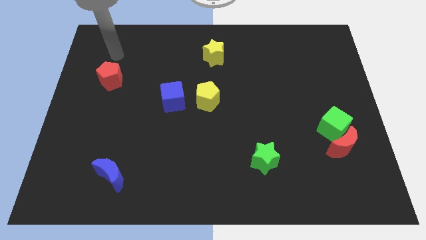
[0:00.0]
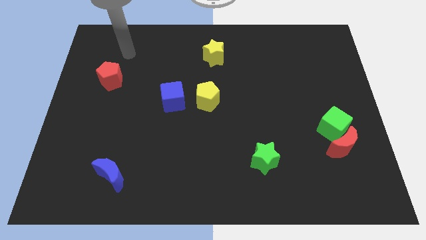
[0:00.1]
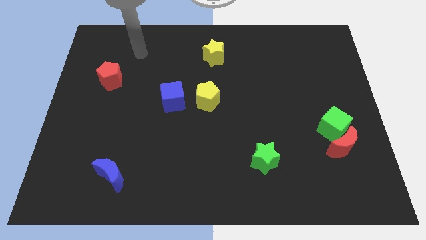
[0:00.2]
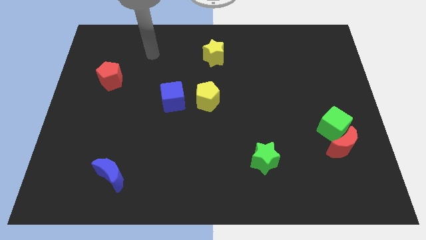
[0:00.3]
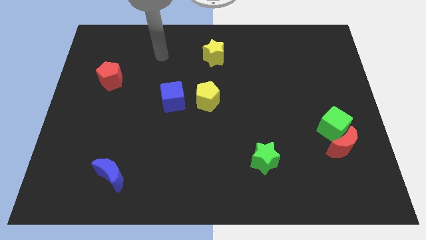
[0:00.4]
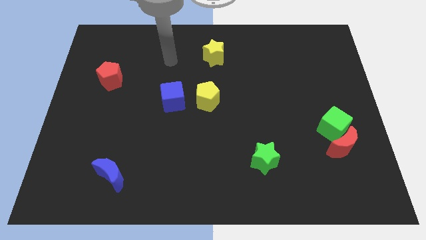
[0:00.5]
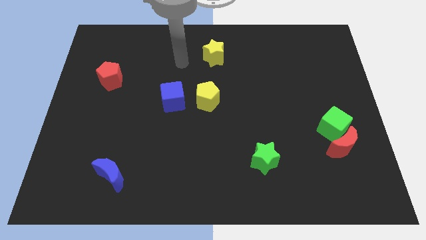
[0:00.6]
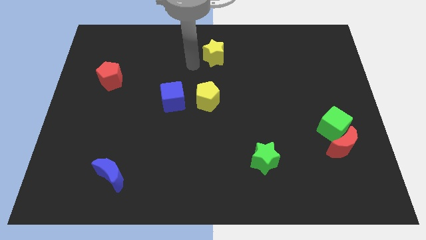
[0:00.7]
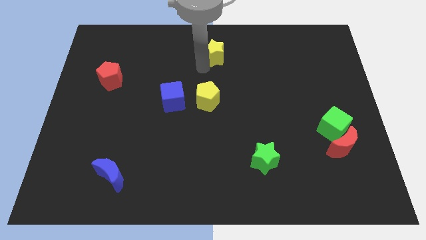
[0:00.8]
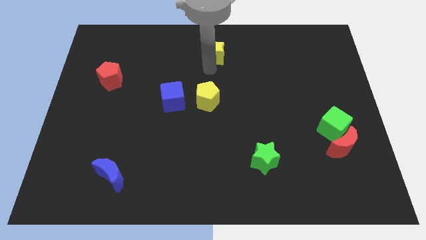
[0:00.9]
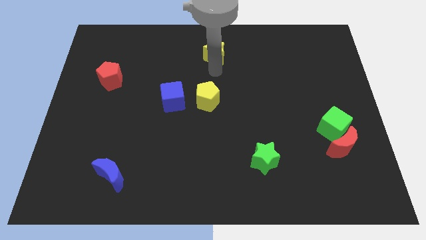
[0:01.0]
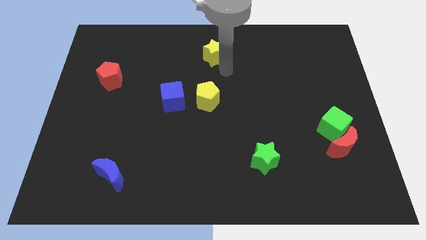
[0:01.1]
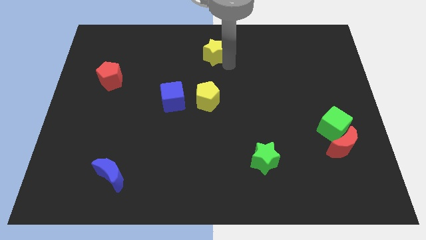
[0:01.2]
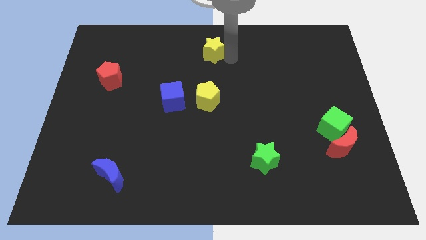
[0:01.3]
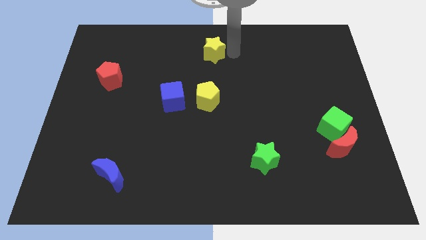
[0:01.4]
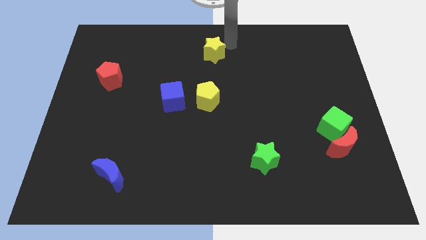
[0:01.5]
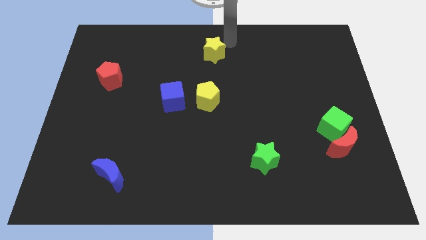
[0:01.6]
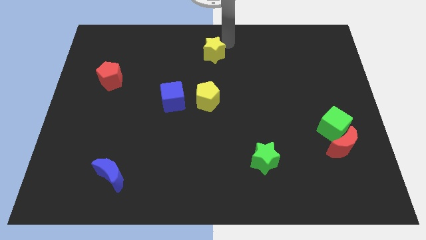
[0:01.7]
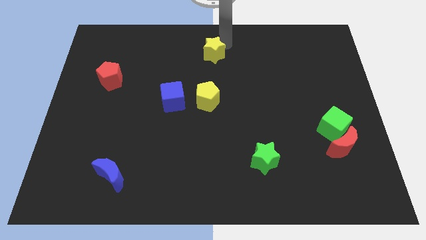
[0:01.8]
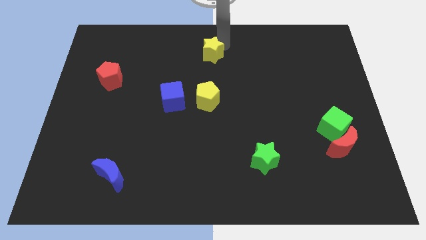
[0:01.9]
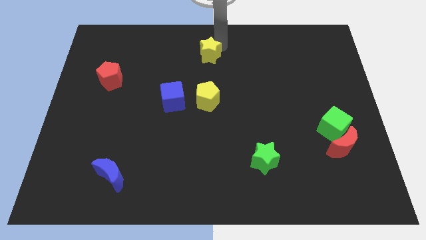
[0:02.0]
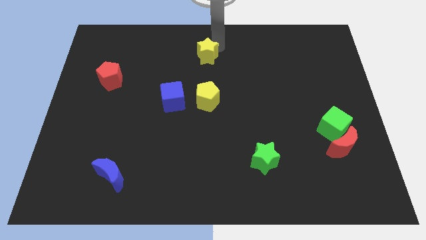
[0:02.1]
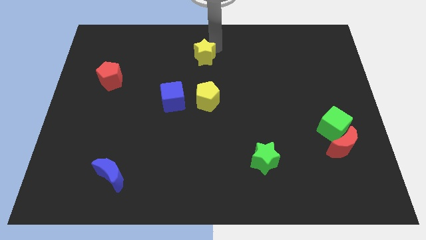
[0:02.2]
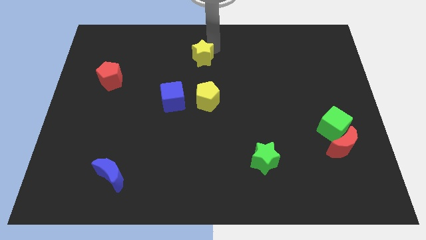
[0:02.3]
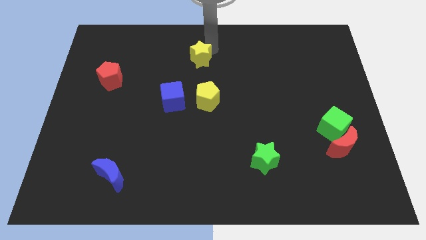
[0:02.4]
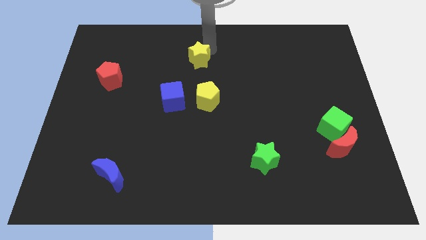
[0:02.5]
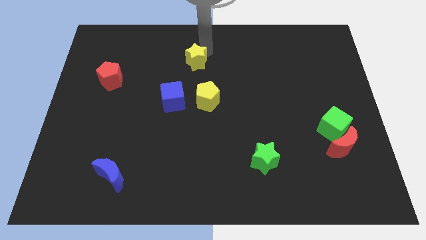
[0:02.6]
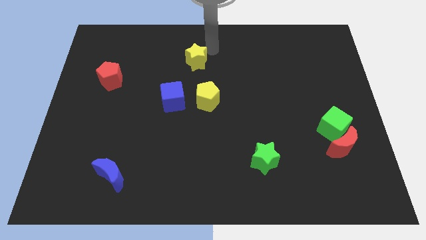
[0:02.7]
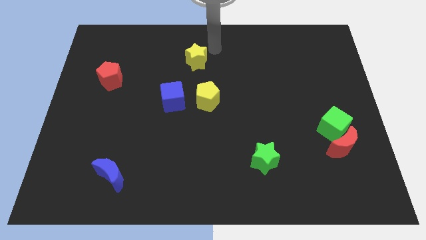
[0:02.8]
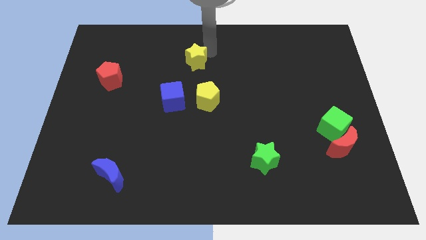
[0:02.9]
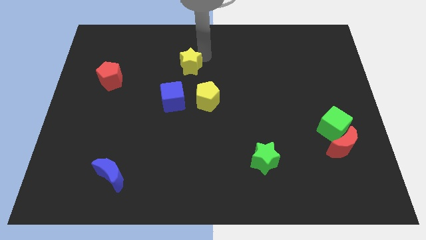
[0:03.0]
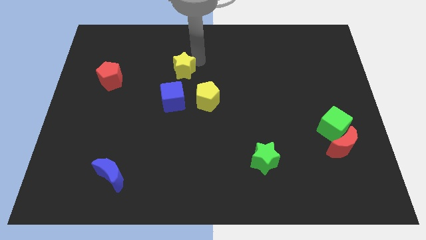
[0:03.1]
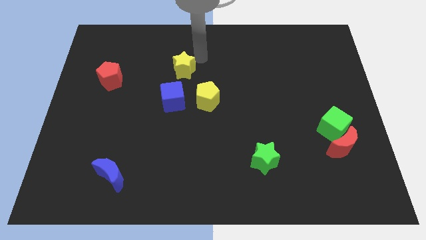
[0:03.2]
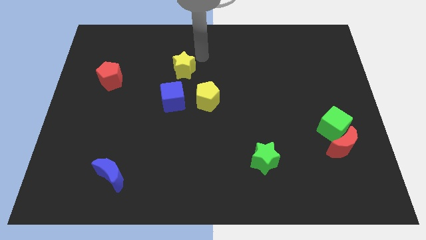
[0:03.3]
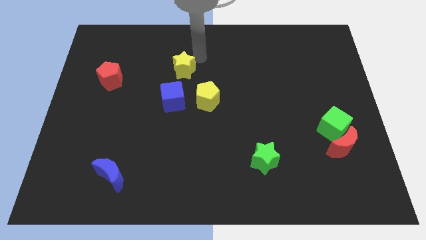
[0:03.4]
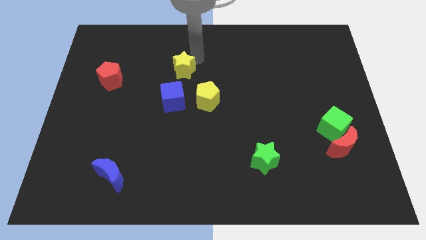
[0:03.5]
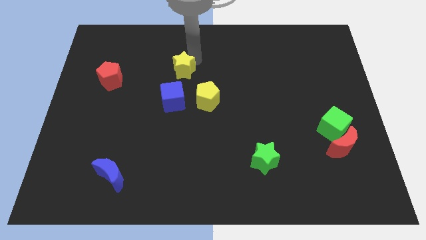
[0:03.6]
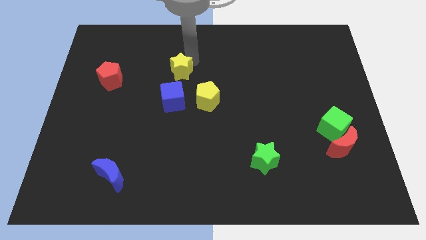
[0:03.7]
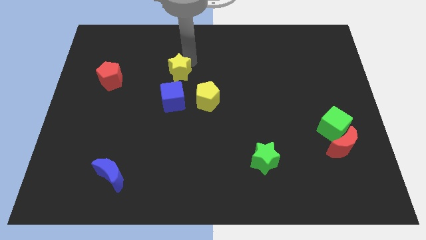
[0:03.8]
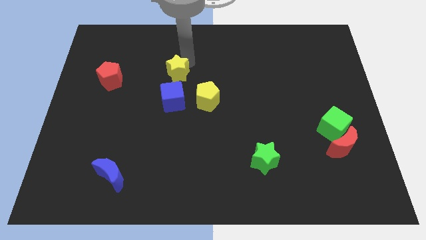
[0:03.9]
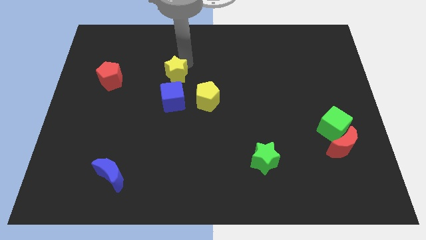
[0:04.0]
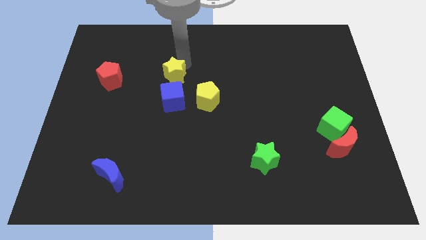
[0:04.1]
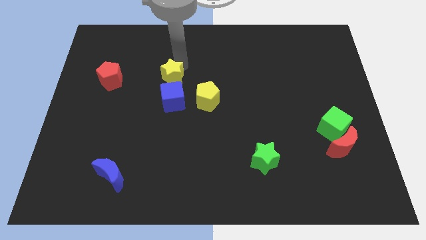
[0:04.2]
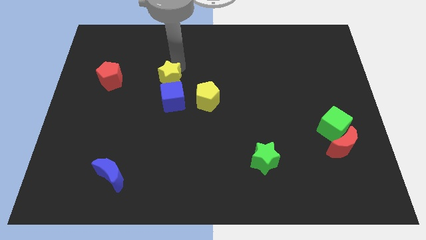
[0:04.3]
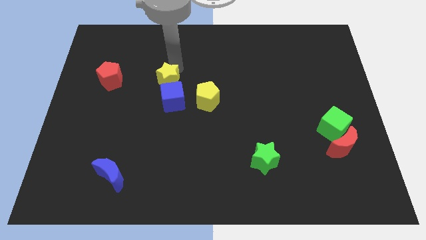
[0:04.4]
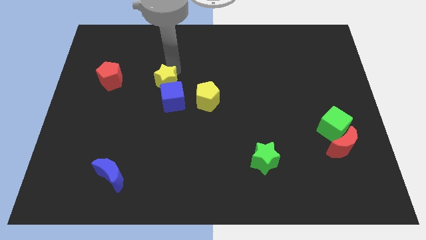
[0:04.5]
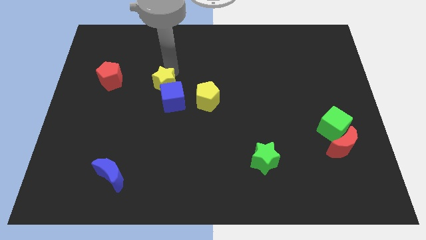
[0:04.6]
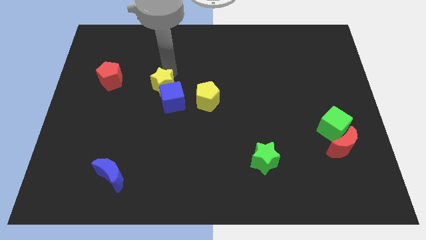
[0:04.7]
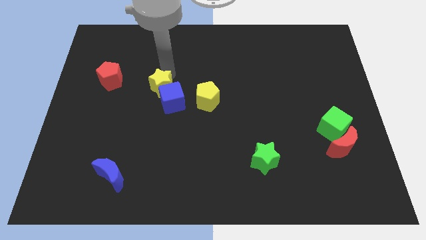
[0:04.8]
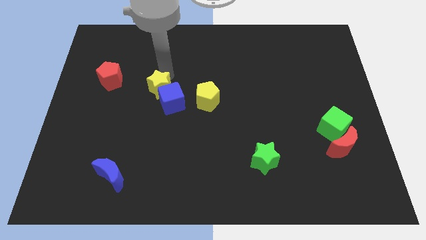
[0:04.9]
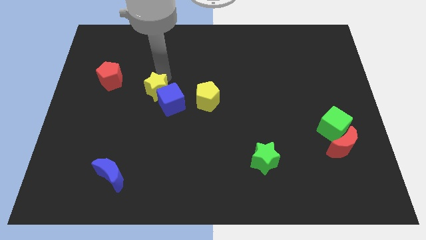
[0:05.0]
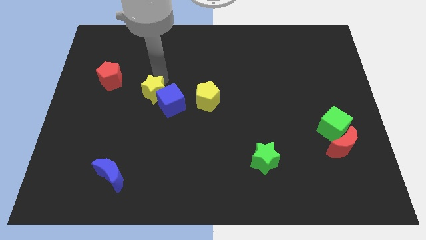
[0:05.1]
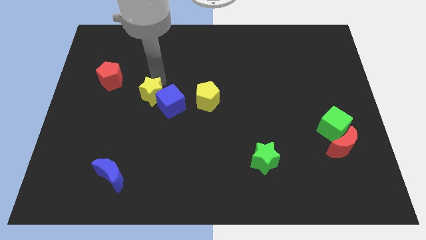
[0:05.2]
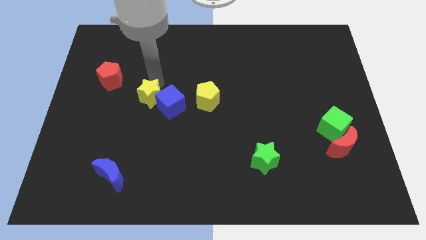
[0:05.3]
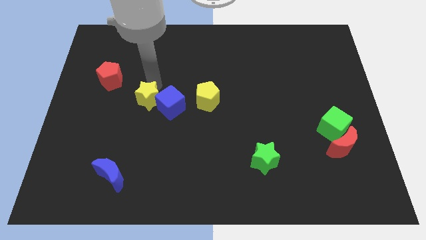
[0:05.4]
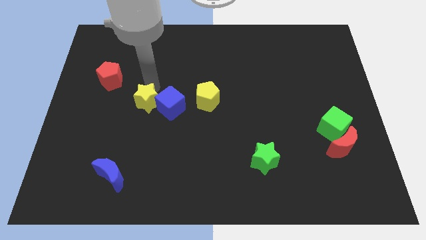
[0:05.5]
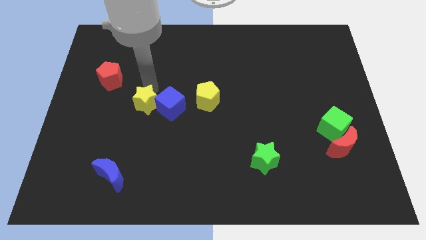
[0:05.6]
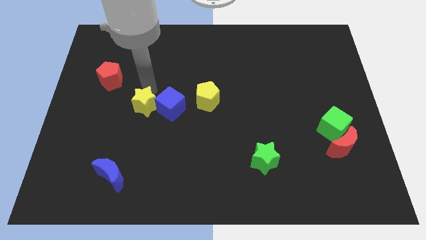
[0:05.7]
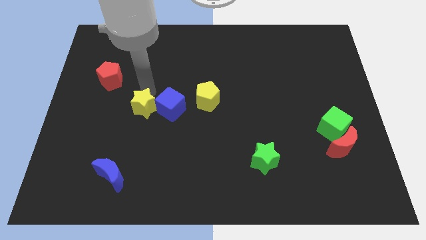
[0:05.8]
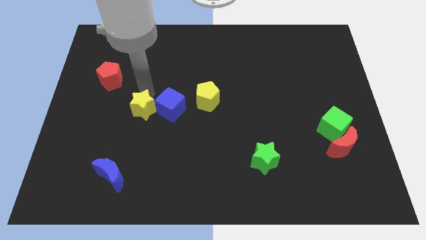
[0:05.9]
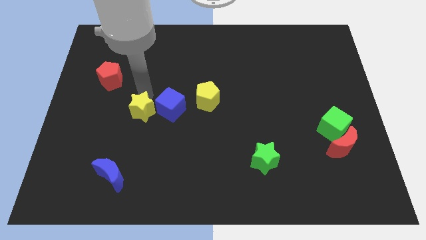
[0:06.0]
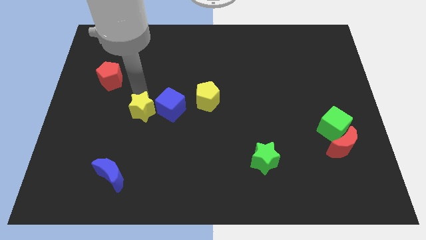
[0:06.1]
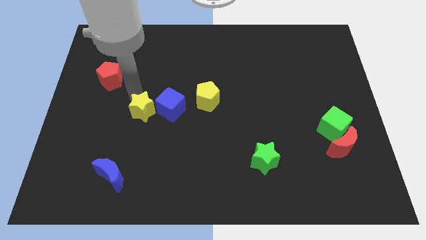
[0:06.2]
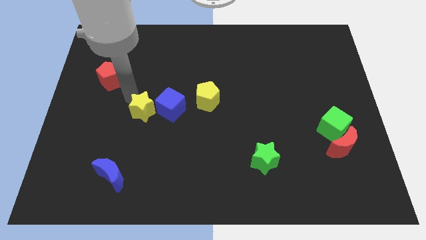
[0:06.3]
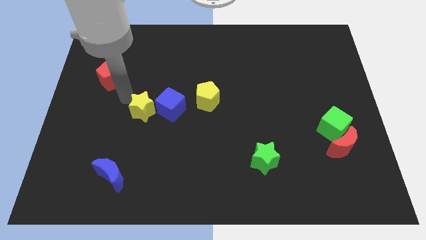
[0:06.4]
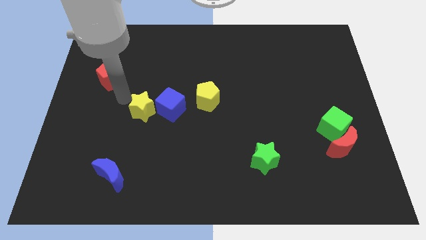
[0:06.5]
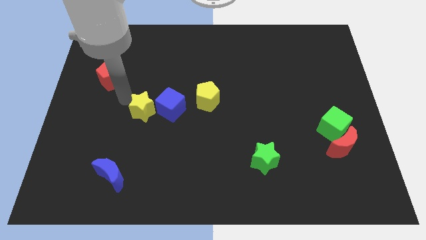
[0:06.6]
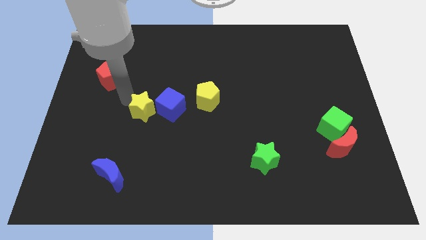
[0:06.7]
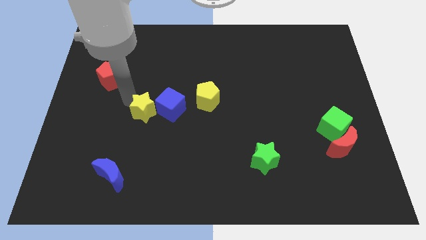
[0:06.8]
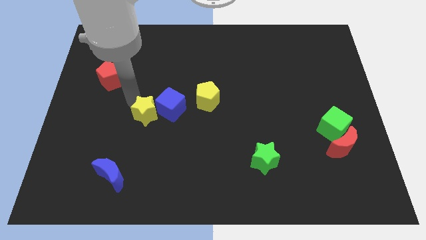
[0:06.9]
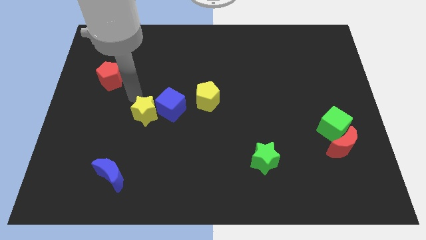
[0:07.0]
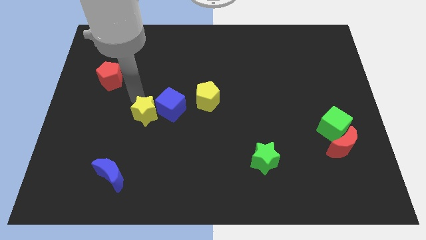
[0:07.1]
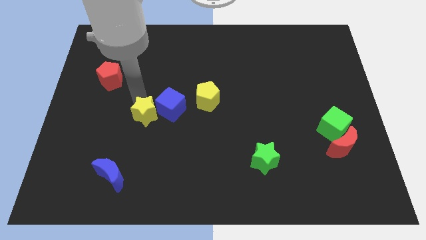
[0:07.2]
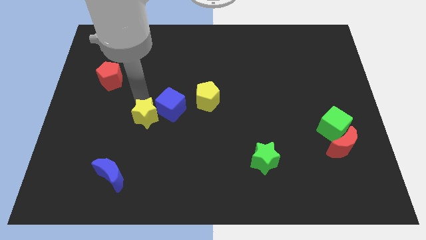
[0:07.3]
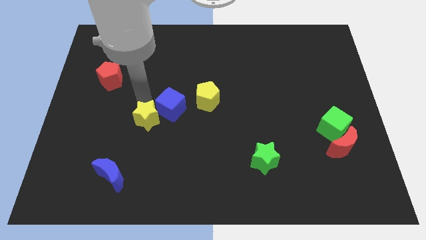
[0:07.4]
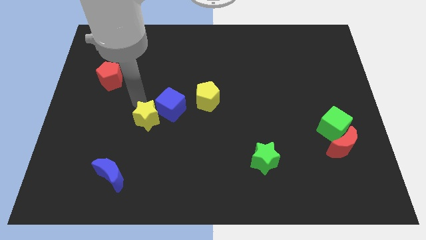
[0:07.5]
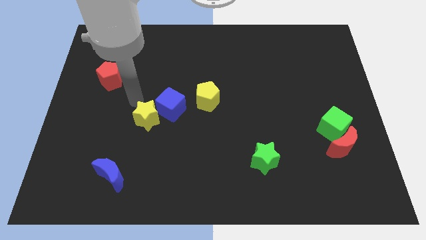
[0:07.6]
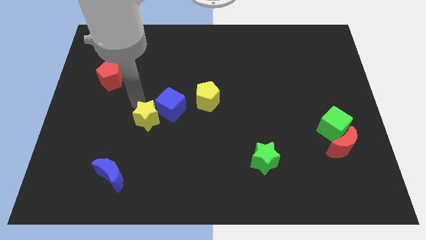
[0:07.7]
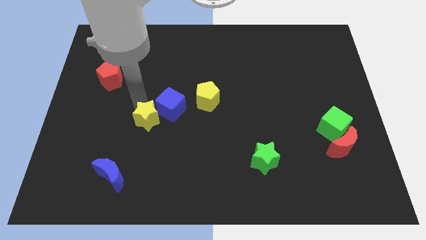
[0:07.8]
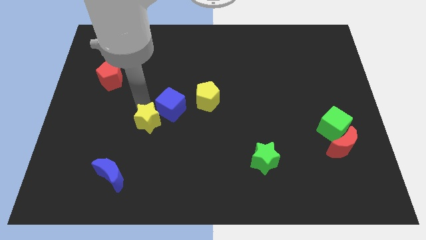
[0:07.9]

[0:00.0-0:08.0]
push the yellow star to the bottom of the blue cube
